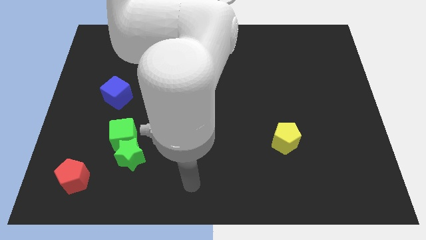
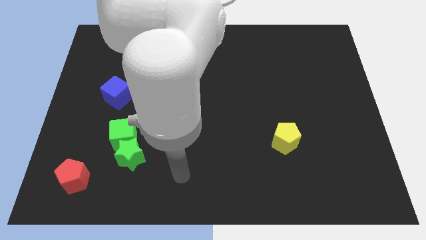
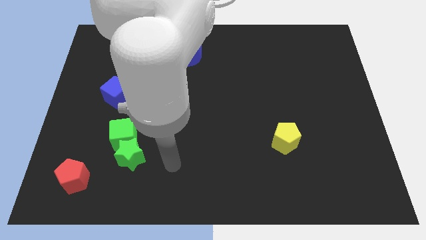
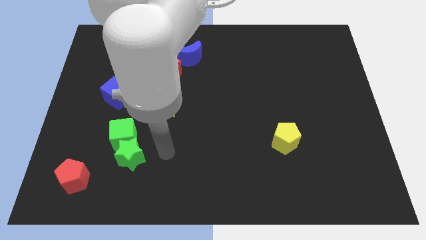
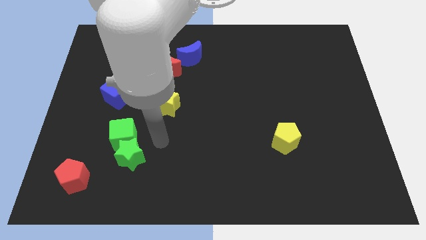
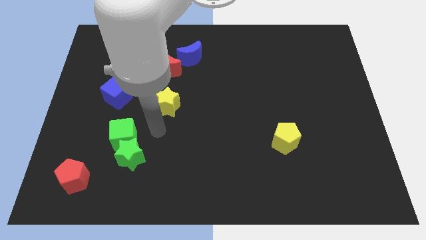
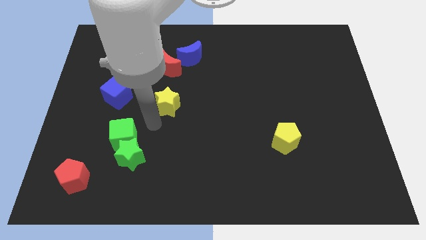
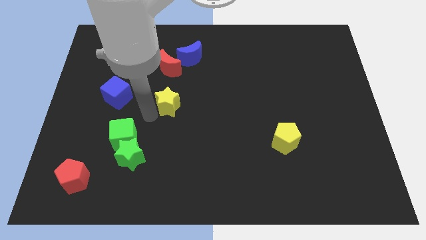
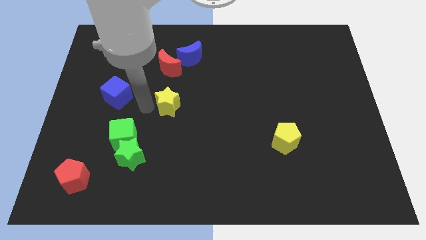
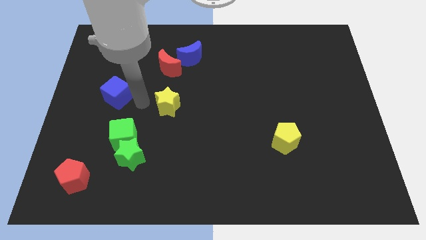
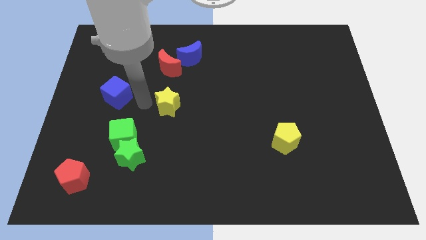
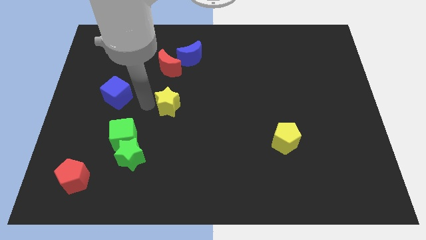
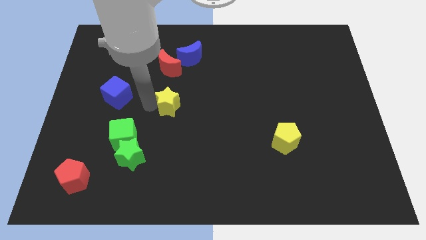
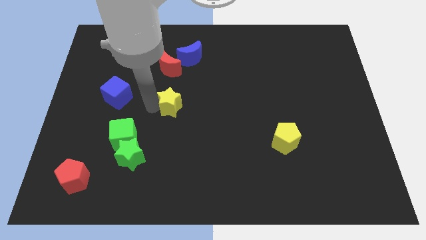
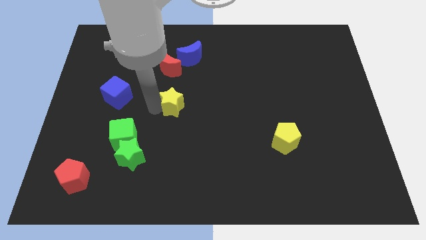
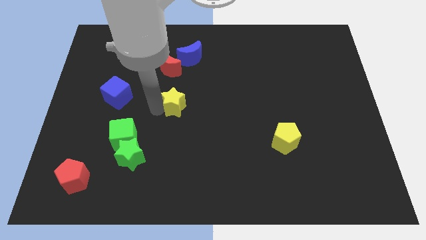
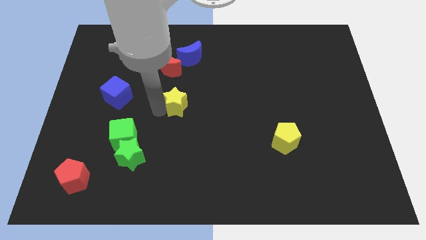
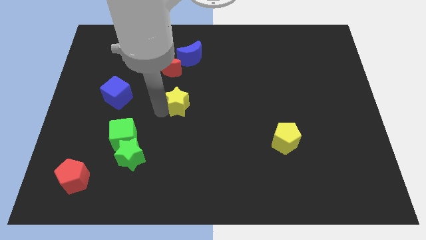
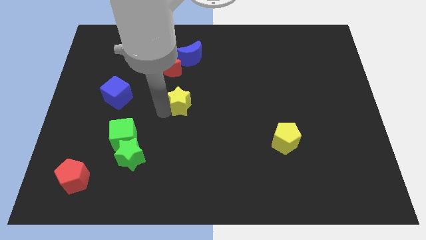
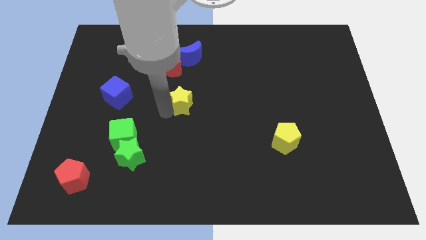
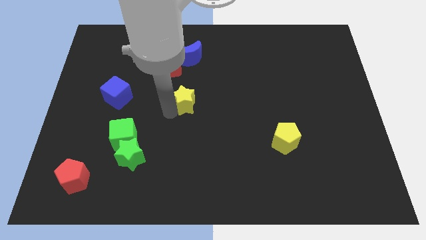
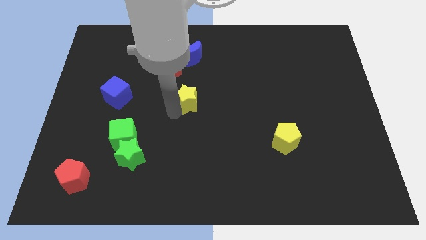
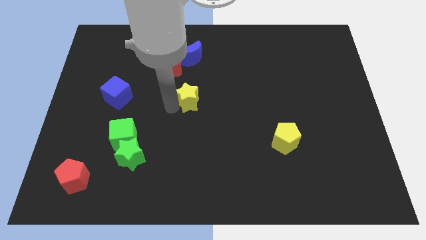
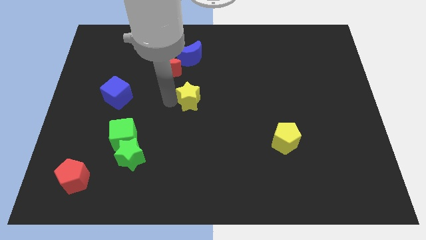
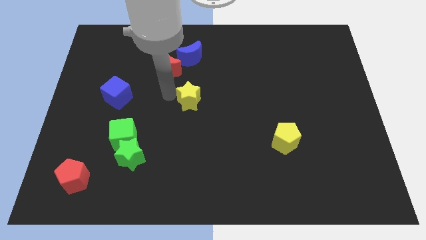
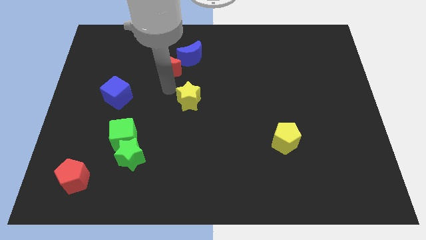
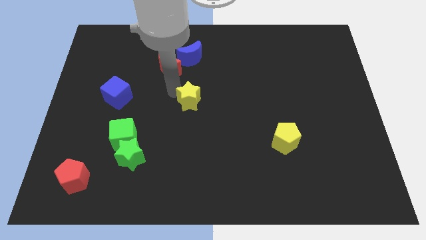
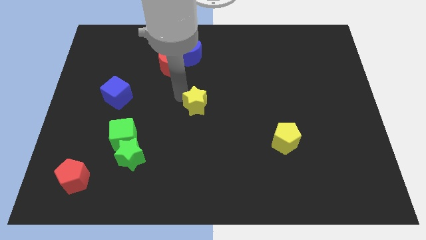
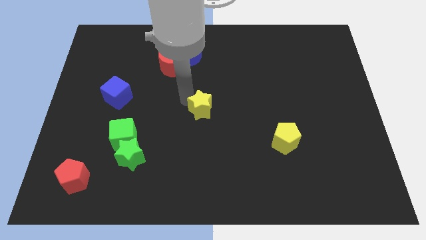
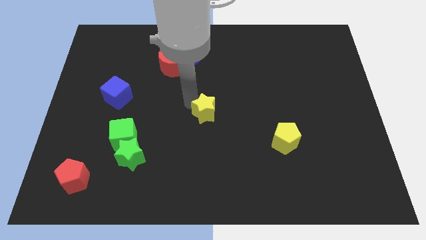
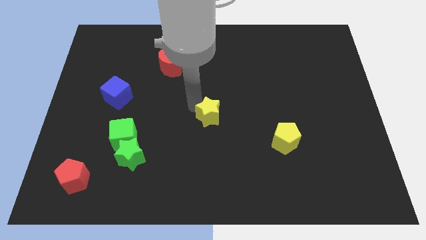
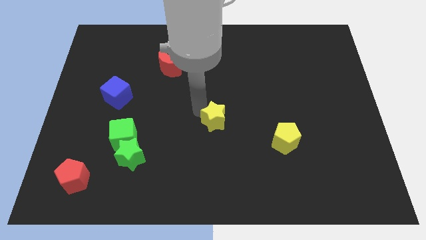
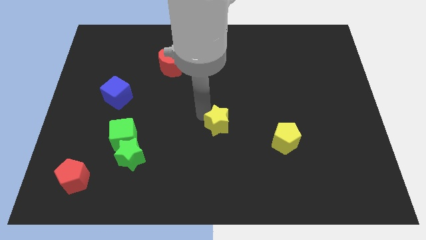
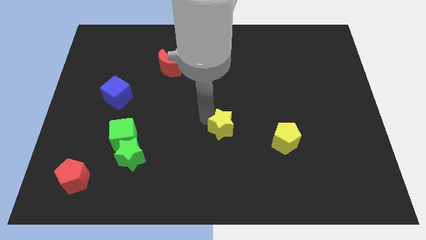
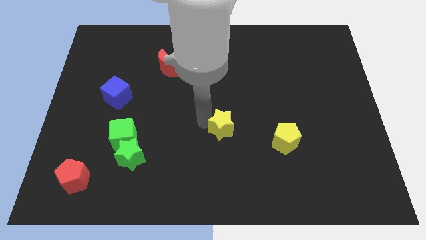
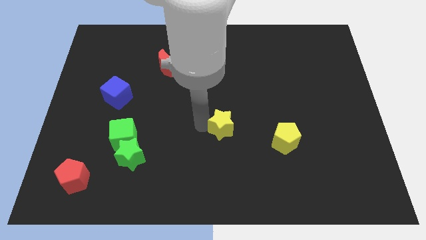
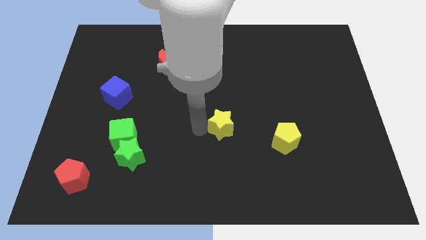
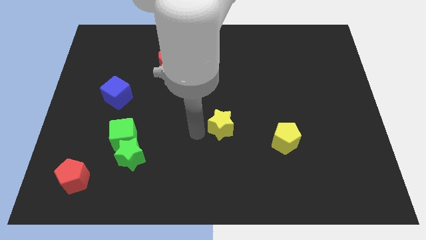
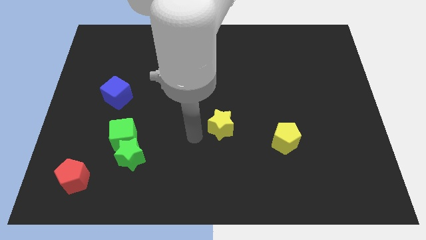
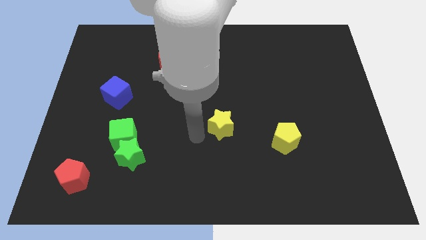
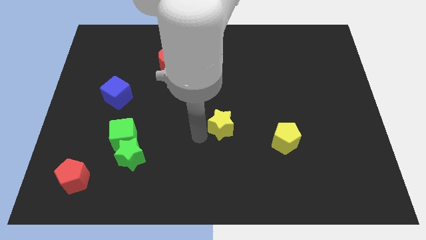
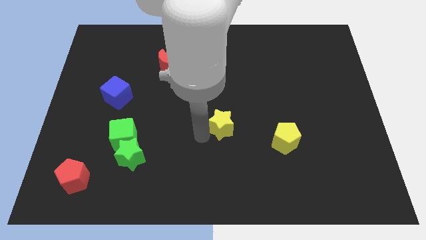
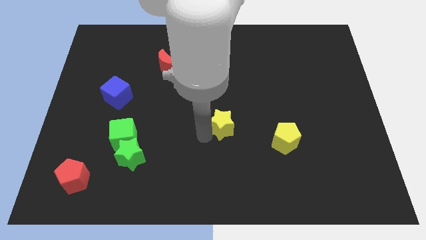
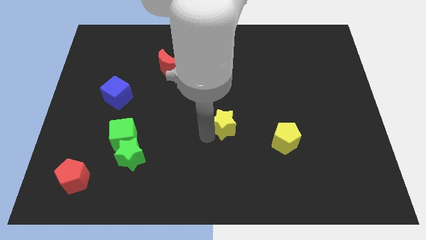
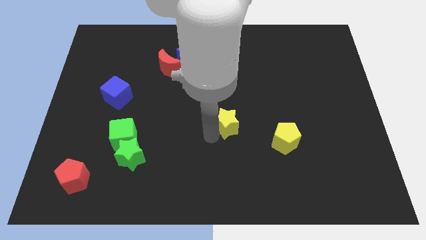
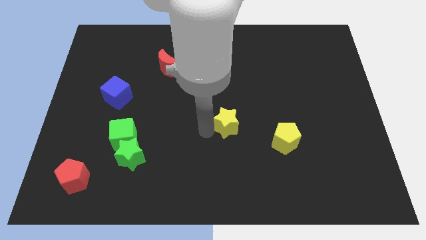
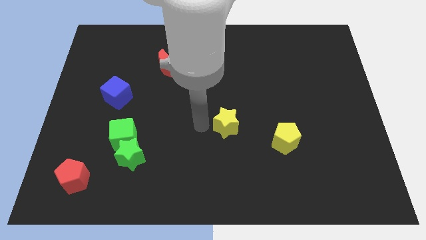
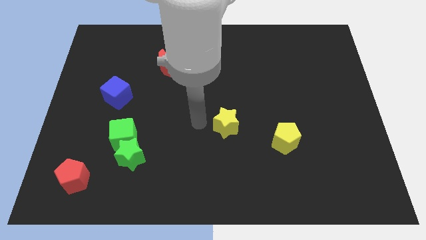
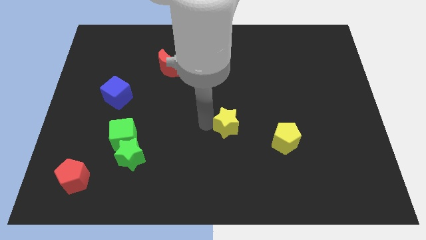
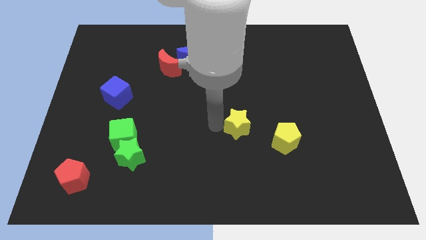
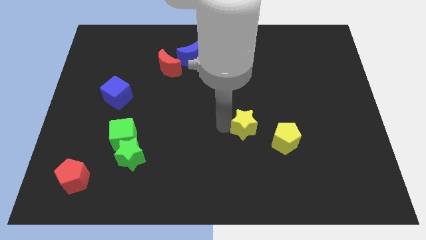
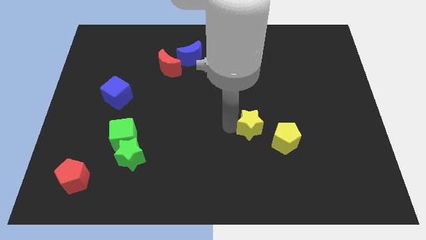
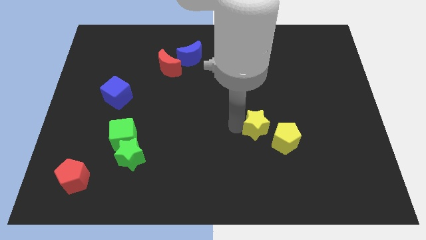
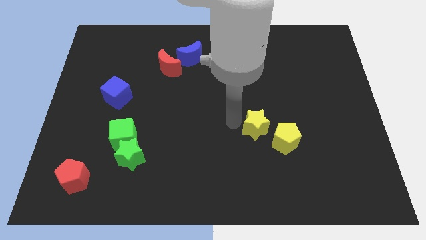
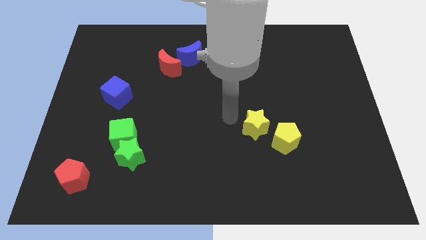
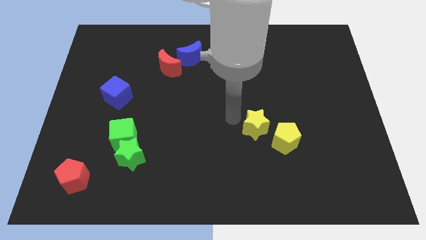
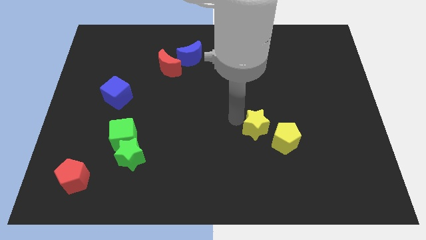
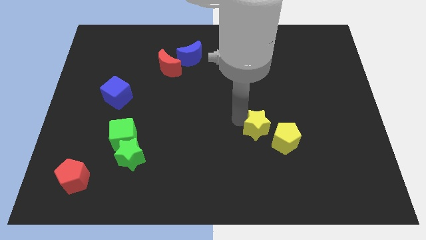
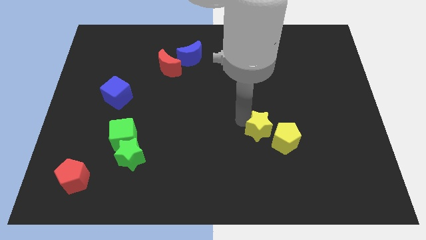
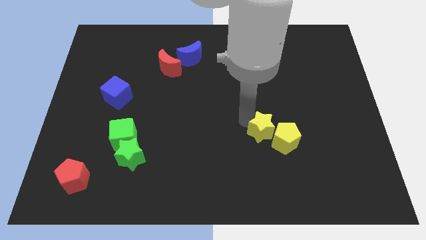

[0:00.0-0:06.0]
push the yellow star close to the yellow pentagon

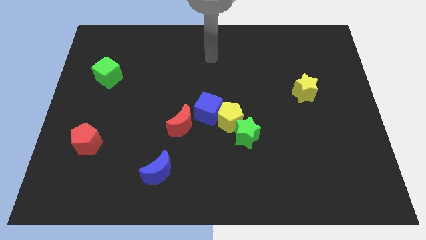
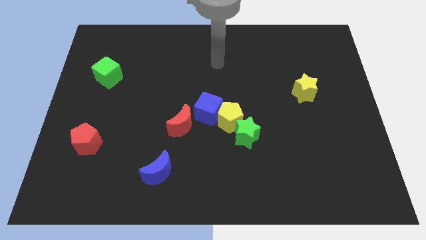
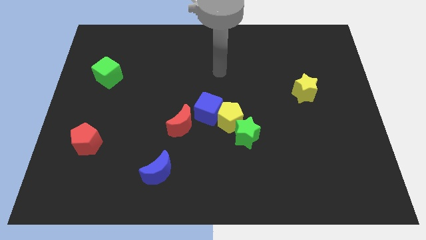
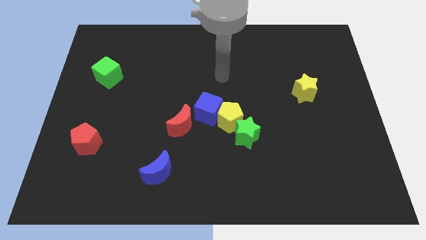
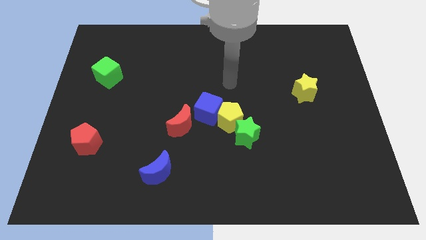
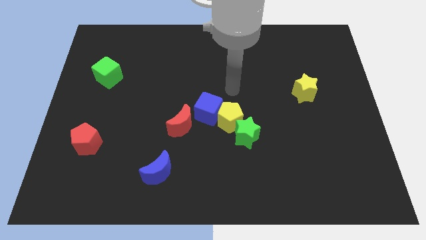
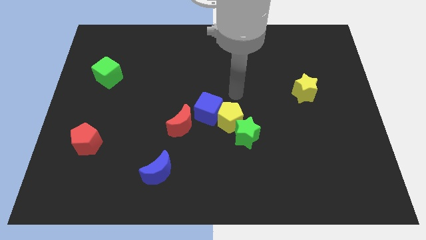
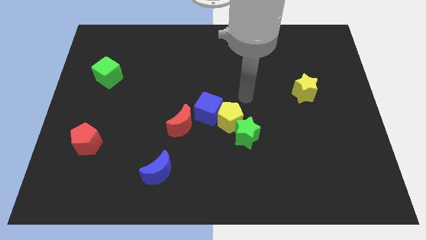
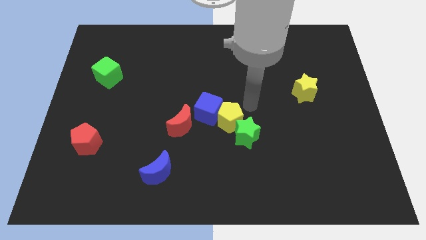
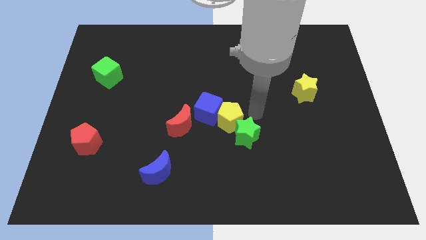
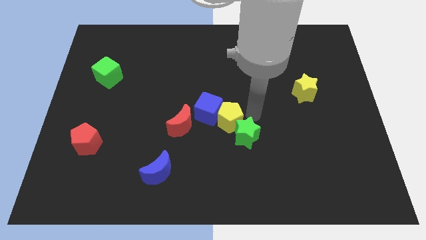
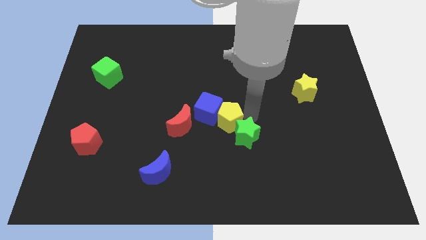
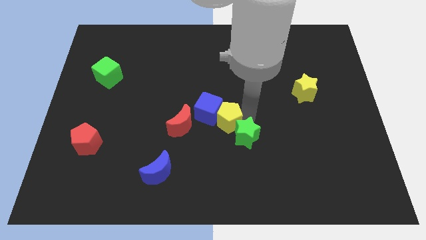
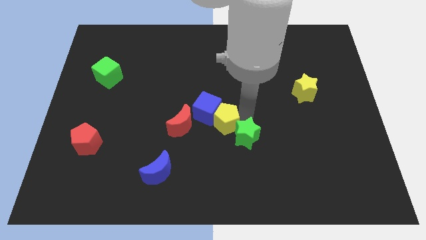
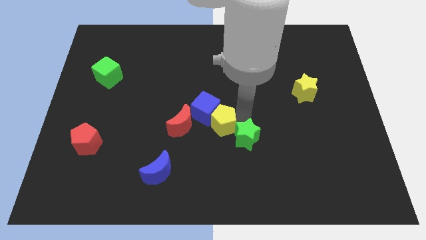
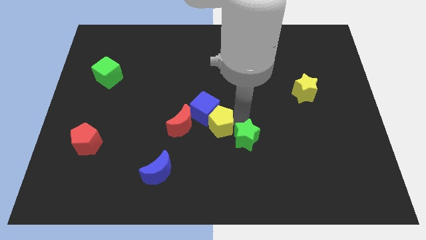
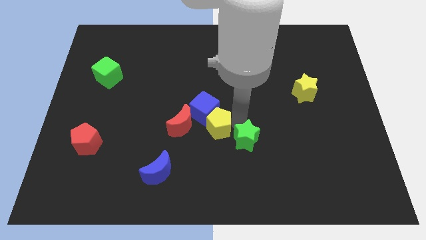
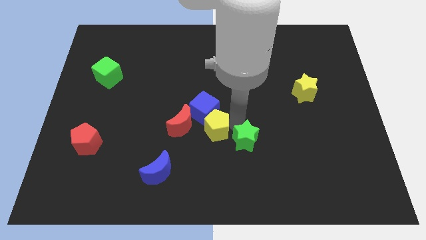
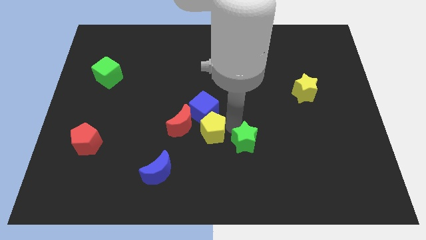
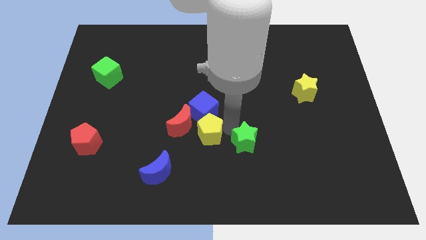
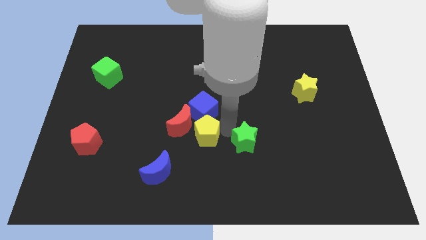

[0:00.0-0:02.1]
put the yellow pentagon next to the red moon
